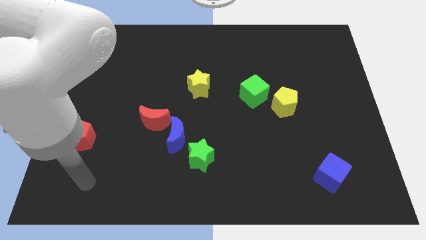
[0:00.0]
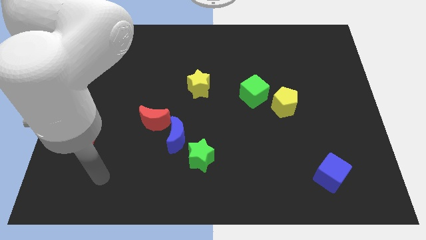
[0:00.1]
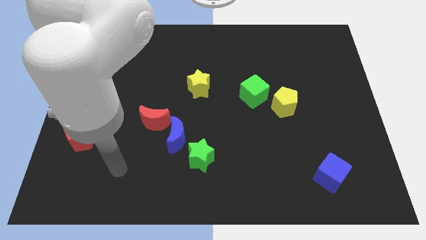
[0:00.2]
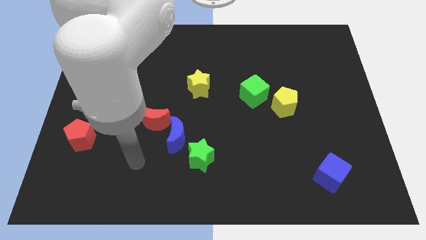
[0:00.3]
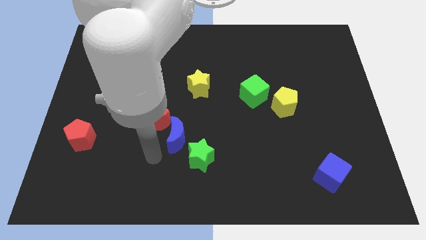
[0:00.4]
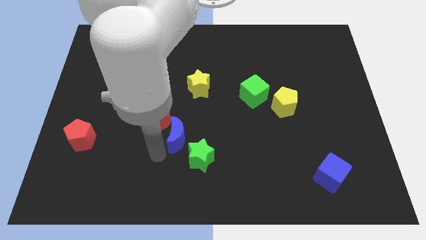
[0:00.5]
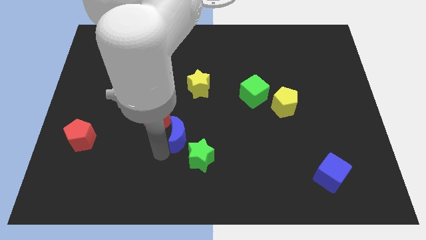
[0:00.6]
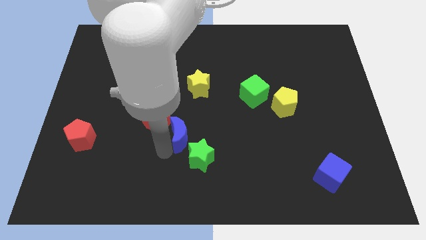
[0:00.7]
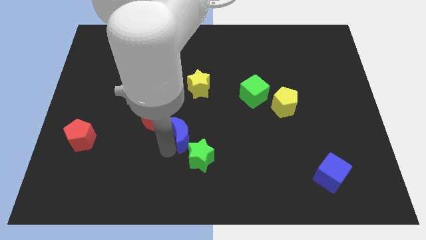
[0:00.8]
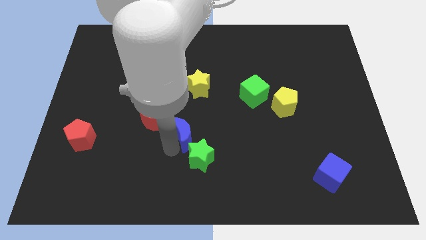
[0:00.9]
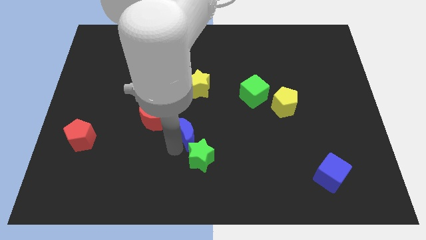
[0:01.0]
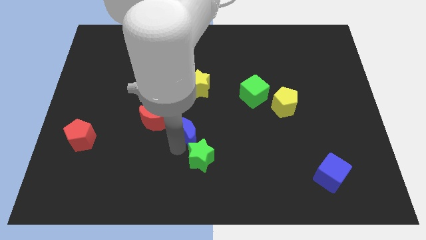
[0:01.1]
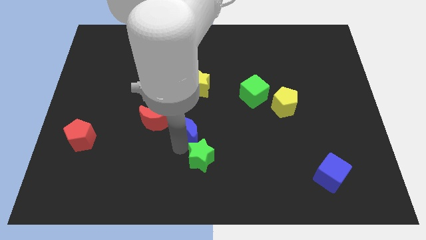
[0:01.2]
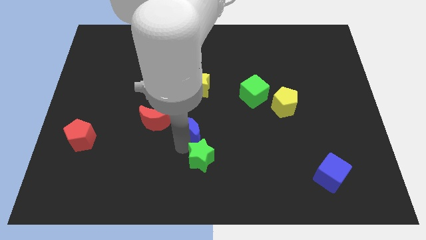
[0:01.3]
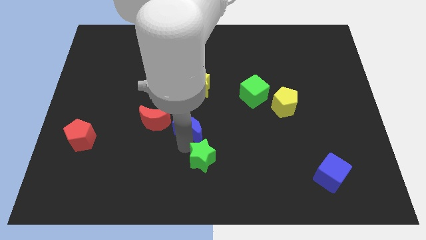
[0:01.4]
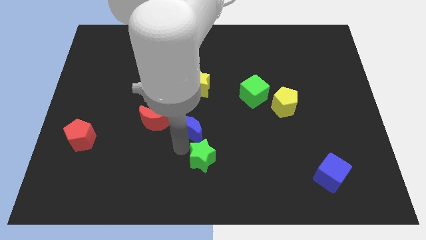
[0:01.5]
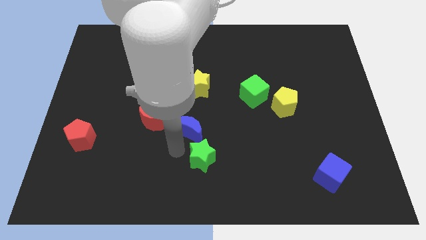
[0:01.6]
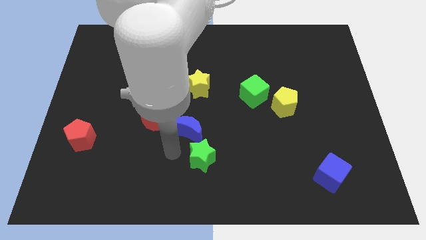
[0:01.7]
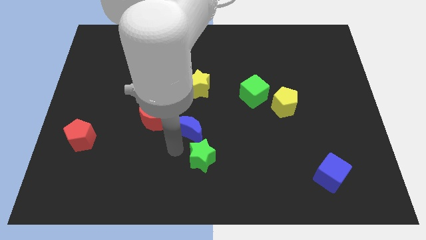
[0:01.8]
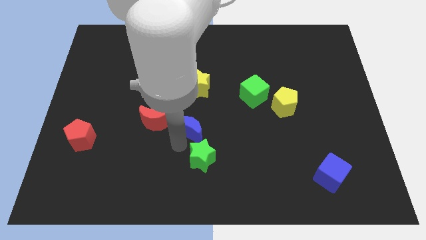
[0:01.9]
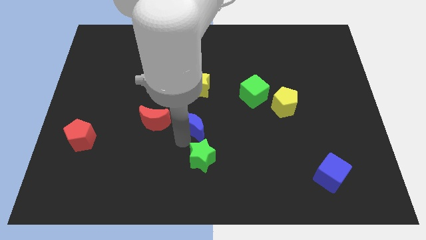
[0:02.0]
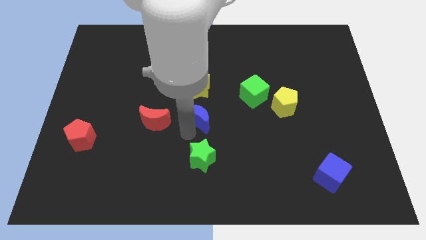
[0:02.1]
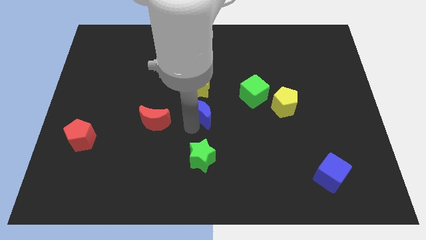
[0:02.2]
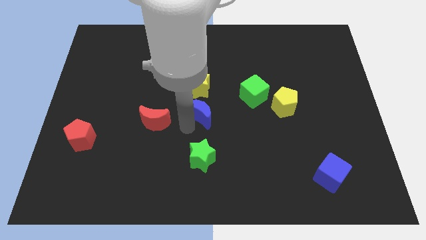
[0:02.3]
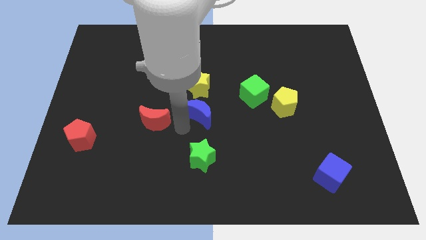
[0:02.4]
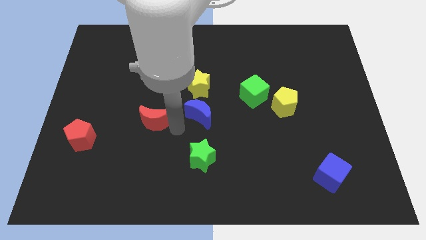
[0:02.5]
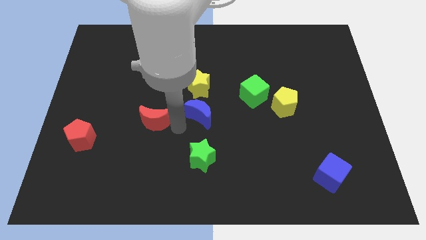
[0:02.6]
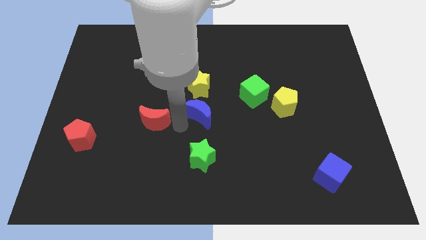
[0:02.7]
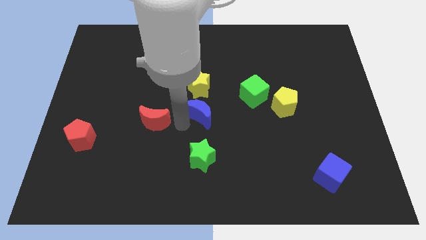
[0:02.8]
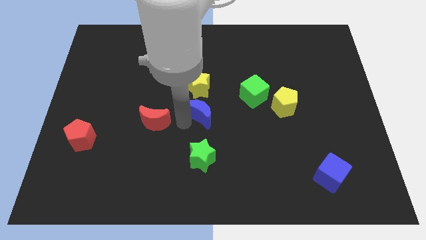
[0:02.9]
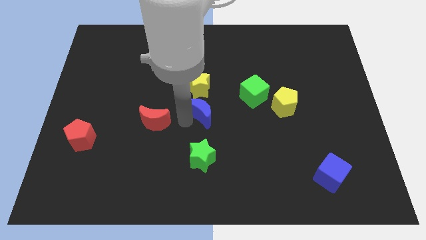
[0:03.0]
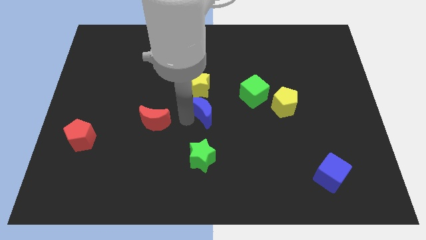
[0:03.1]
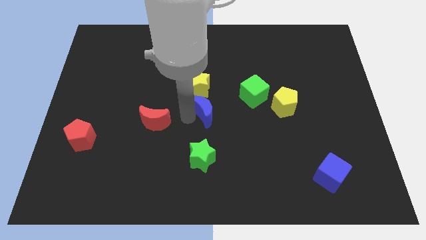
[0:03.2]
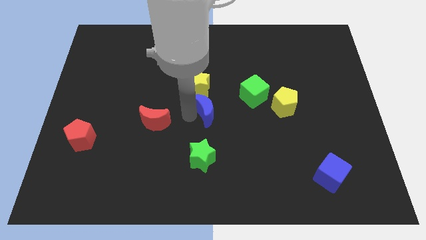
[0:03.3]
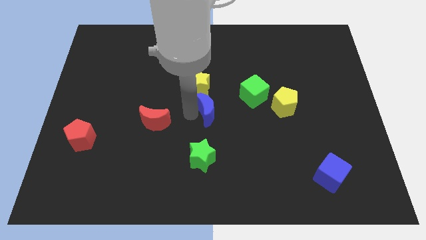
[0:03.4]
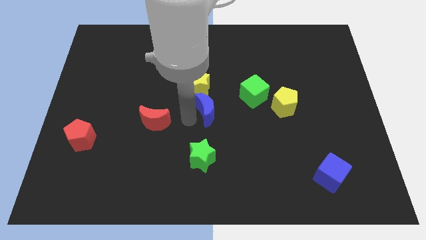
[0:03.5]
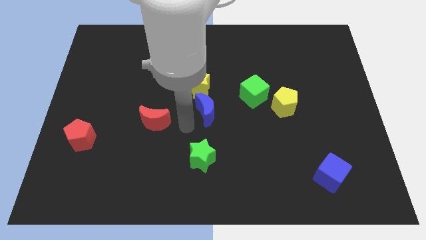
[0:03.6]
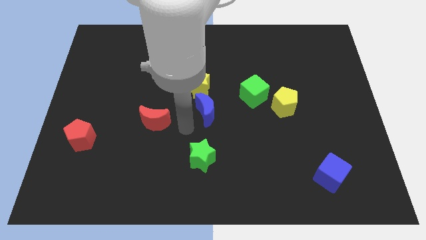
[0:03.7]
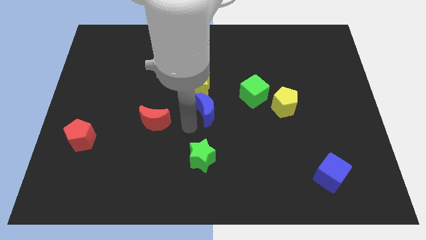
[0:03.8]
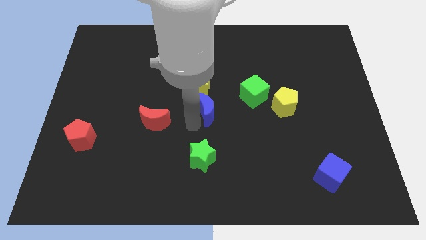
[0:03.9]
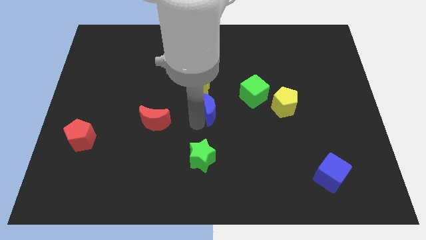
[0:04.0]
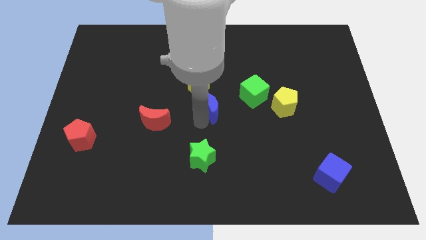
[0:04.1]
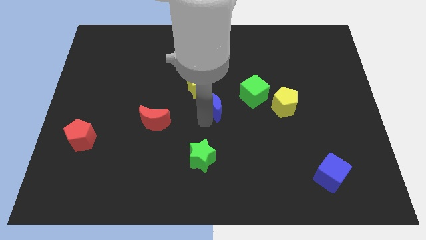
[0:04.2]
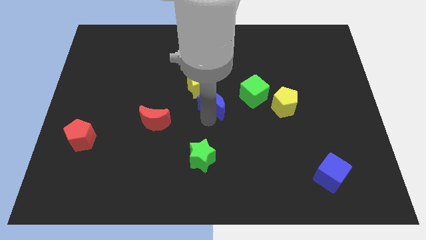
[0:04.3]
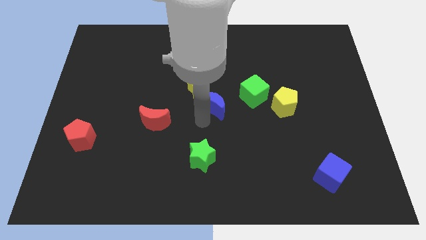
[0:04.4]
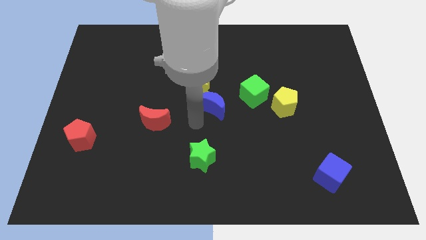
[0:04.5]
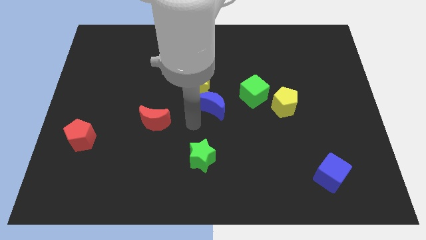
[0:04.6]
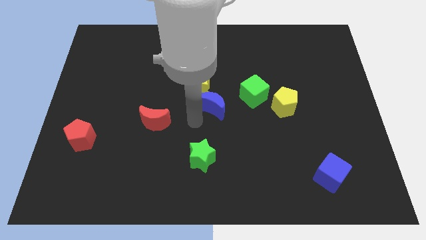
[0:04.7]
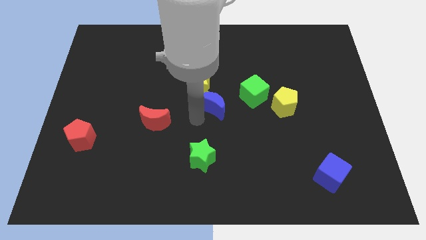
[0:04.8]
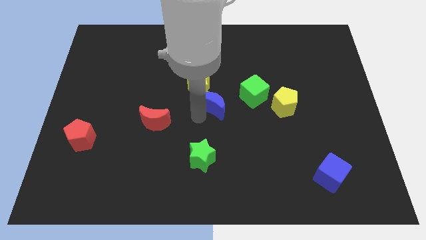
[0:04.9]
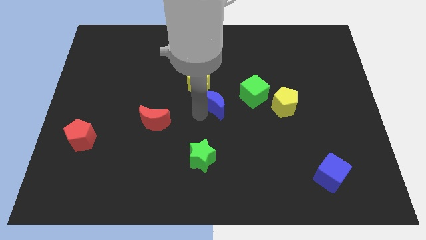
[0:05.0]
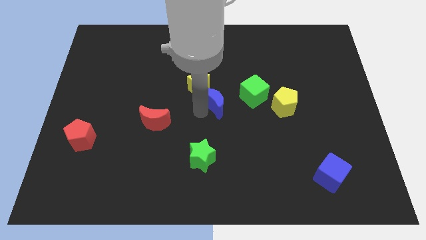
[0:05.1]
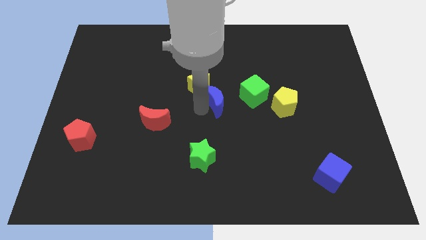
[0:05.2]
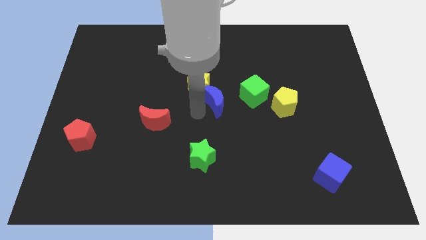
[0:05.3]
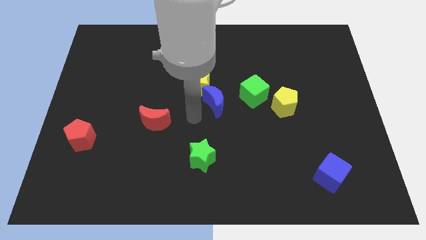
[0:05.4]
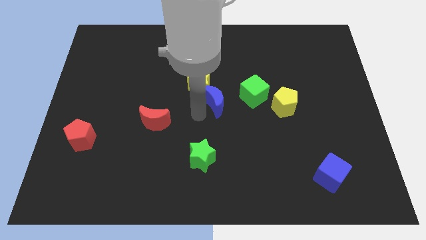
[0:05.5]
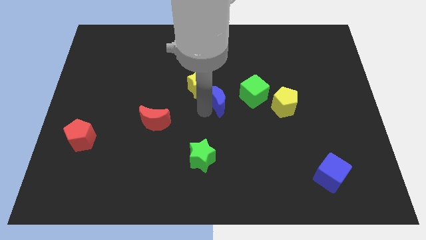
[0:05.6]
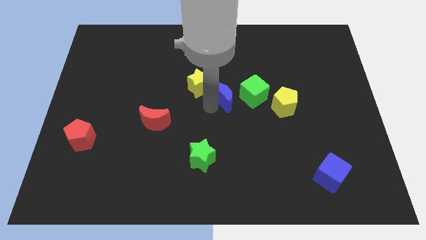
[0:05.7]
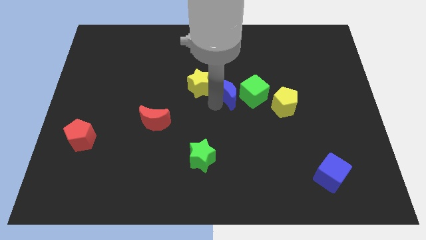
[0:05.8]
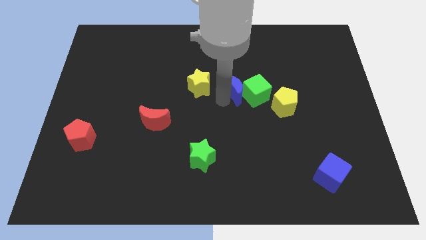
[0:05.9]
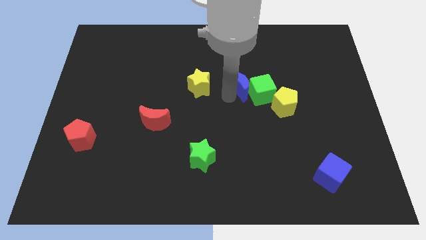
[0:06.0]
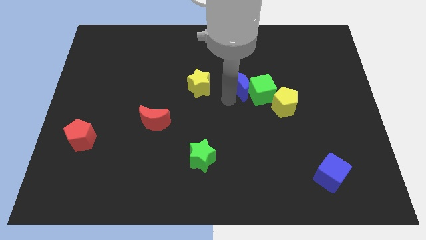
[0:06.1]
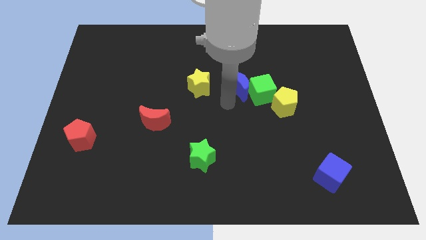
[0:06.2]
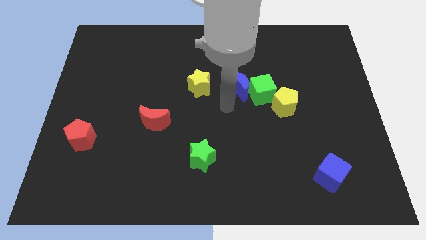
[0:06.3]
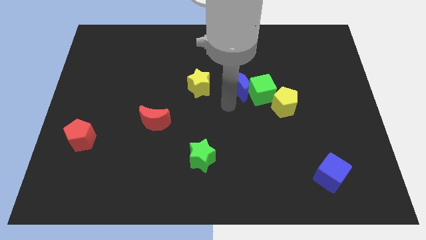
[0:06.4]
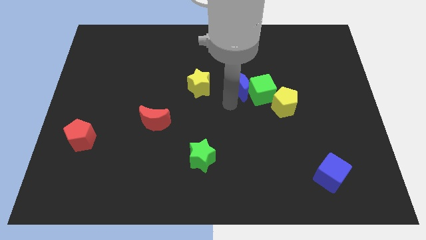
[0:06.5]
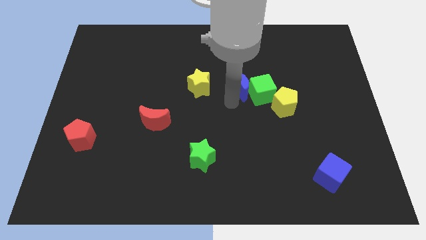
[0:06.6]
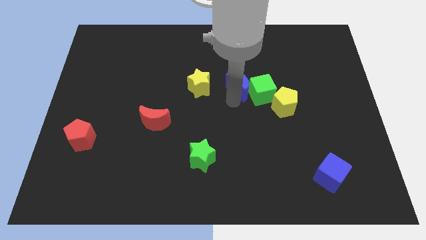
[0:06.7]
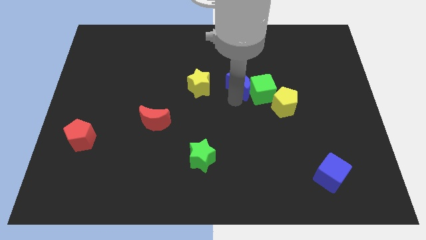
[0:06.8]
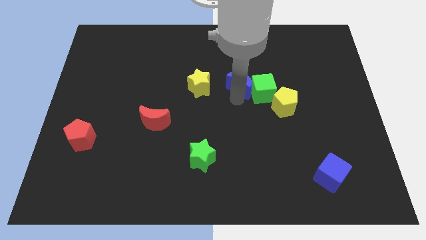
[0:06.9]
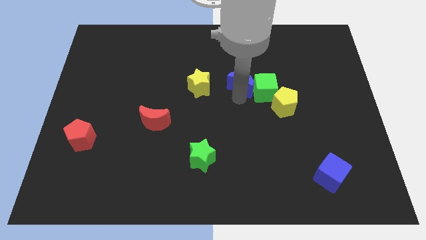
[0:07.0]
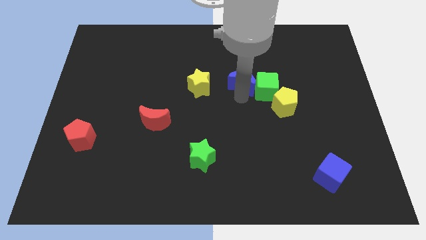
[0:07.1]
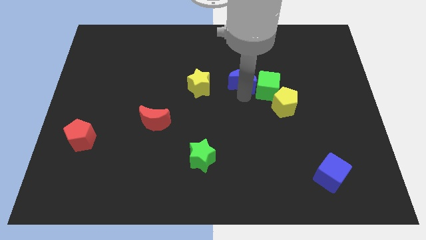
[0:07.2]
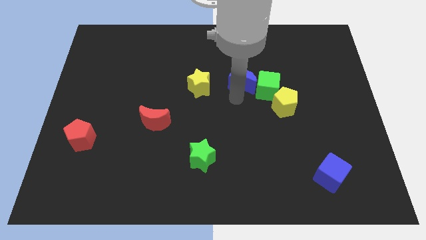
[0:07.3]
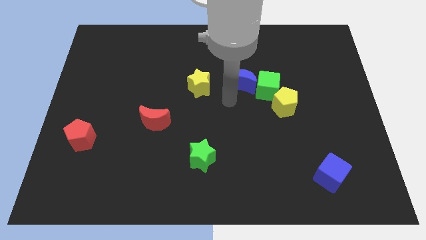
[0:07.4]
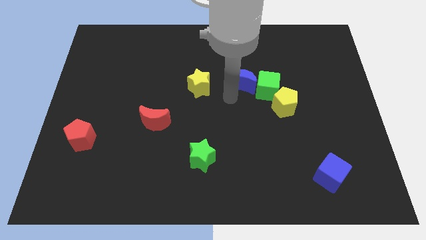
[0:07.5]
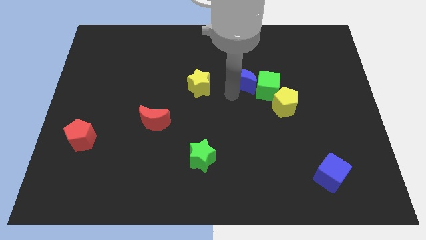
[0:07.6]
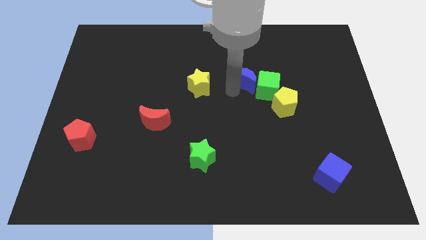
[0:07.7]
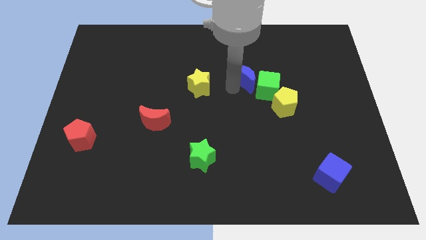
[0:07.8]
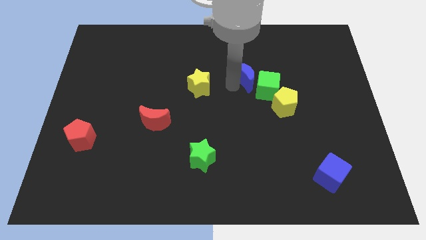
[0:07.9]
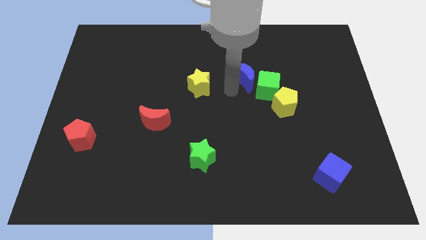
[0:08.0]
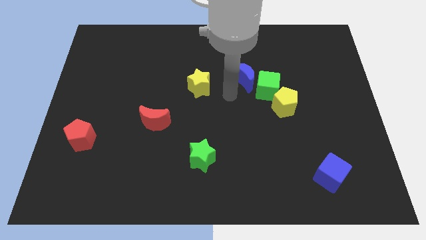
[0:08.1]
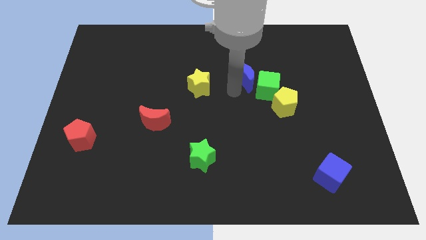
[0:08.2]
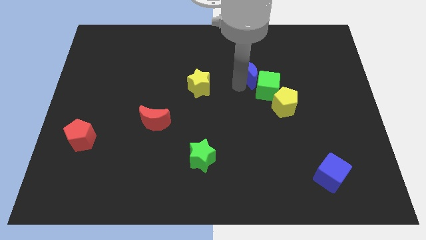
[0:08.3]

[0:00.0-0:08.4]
push the blue moon to the top of the green cube
